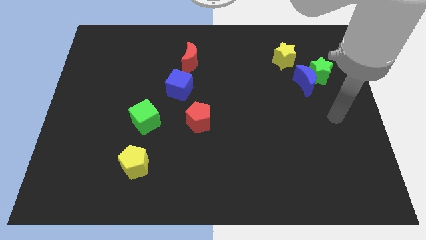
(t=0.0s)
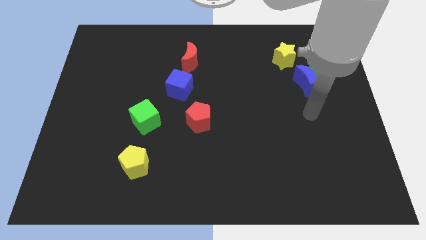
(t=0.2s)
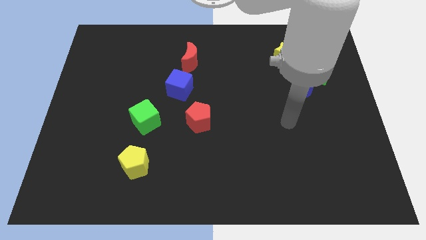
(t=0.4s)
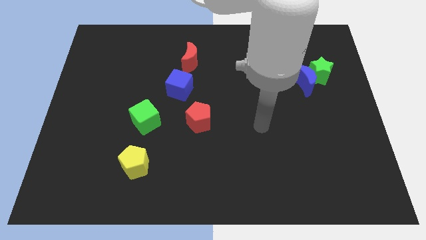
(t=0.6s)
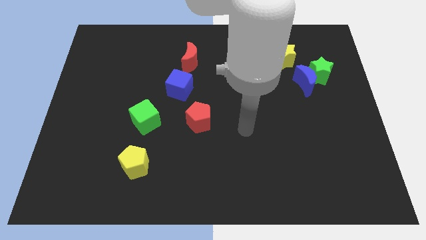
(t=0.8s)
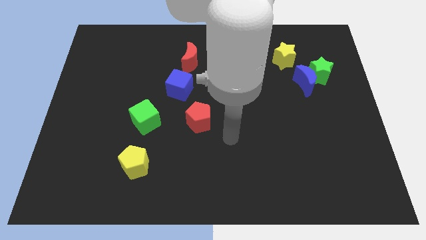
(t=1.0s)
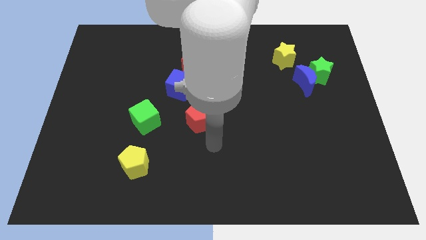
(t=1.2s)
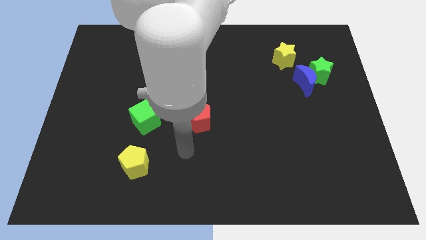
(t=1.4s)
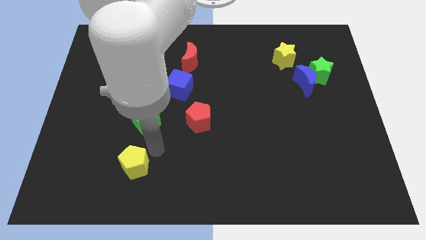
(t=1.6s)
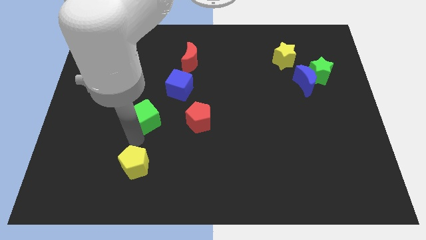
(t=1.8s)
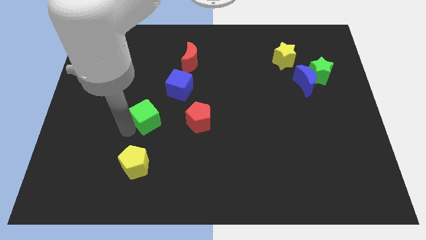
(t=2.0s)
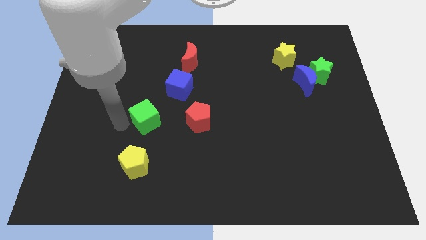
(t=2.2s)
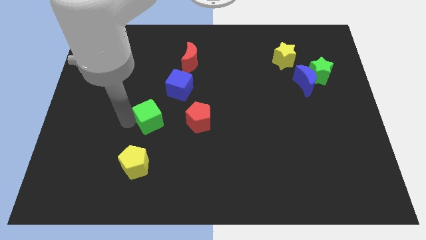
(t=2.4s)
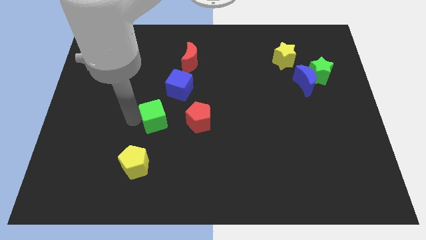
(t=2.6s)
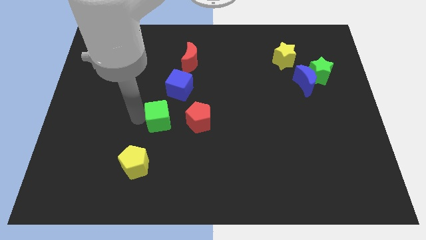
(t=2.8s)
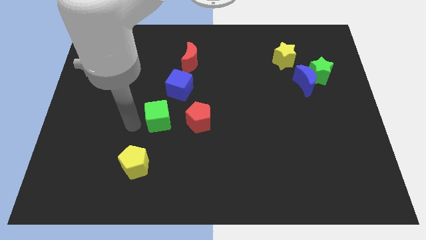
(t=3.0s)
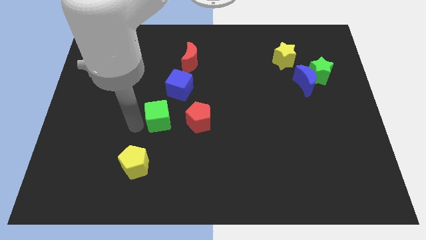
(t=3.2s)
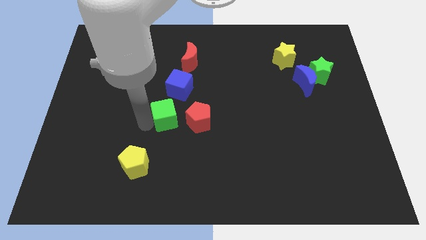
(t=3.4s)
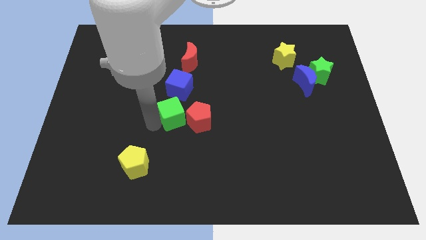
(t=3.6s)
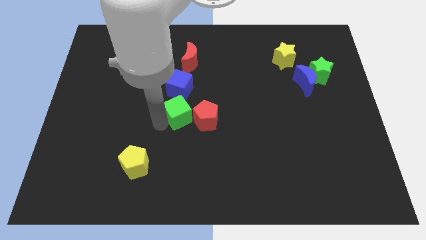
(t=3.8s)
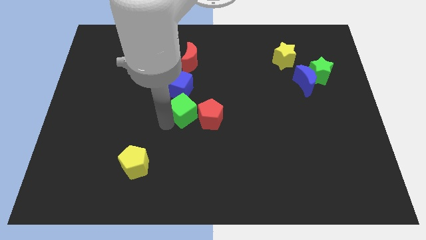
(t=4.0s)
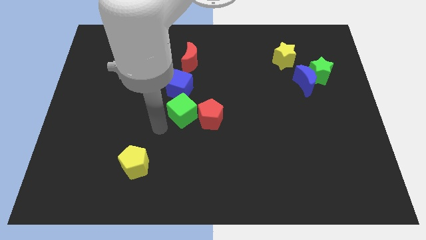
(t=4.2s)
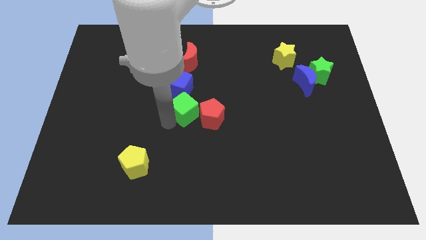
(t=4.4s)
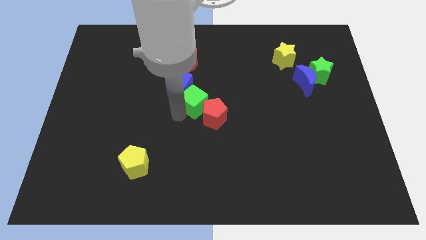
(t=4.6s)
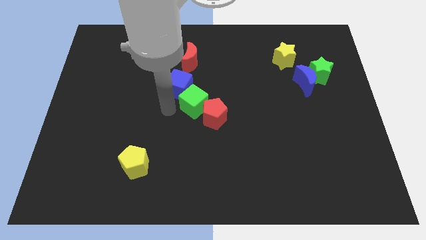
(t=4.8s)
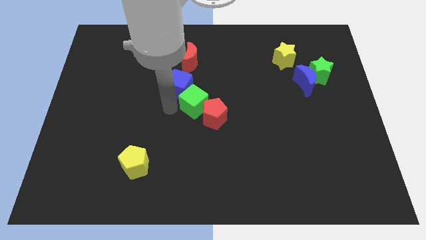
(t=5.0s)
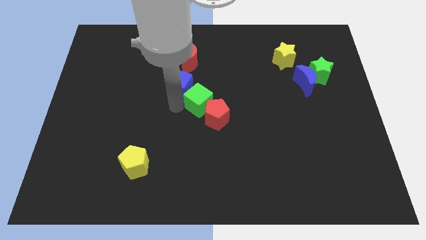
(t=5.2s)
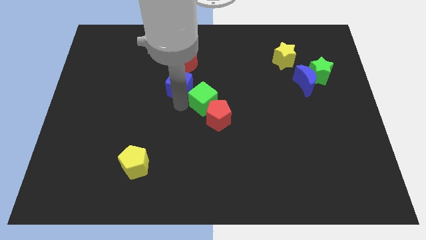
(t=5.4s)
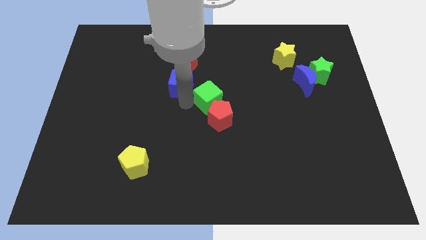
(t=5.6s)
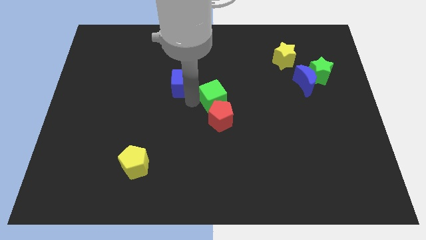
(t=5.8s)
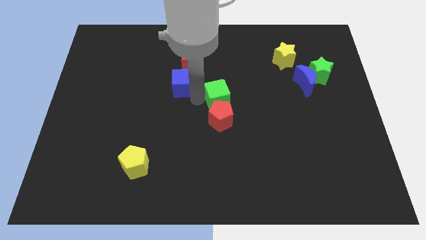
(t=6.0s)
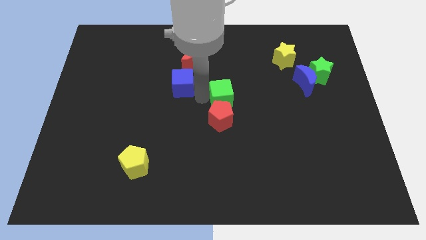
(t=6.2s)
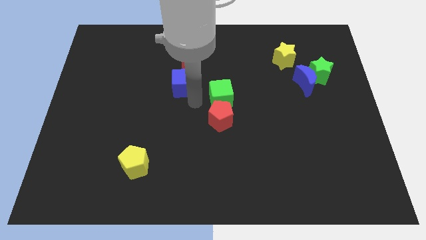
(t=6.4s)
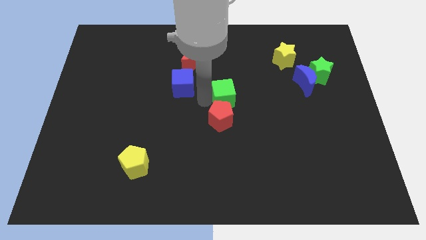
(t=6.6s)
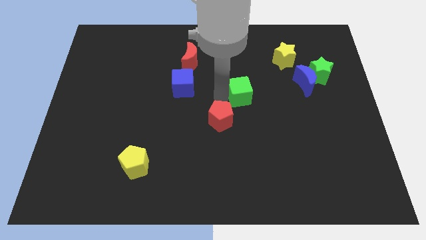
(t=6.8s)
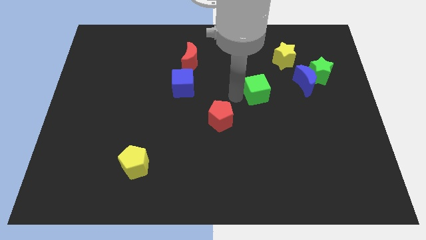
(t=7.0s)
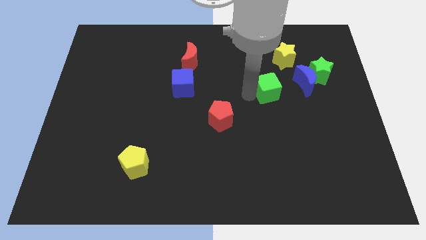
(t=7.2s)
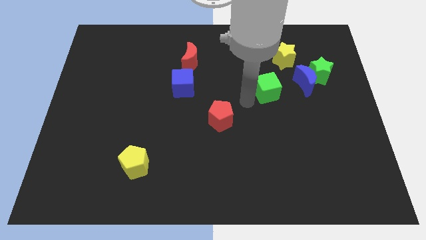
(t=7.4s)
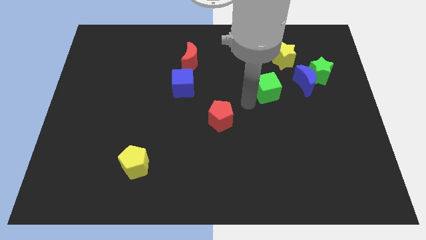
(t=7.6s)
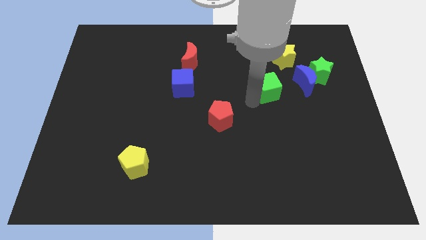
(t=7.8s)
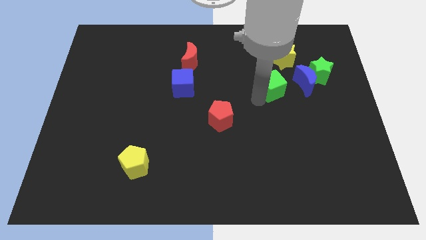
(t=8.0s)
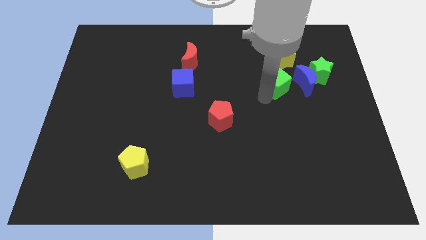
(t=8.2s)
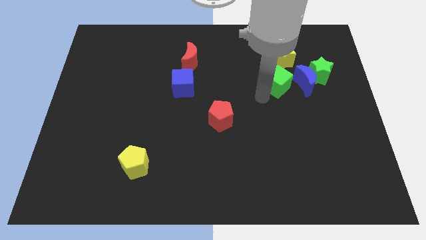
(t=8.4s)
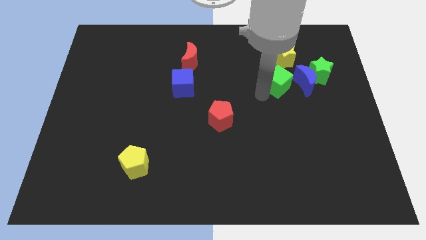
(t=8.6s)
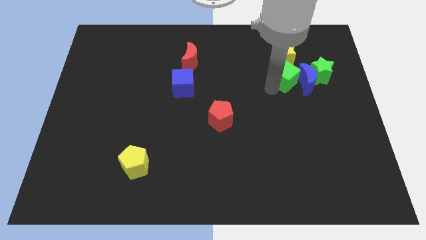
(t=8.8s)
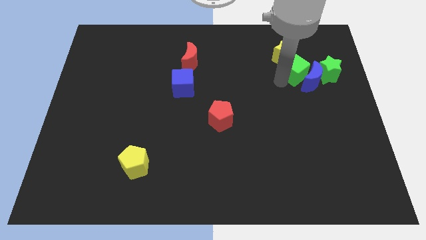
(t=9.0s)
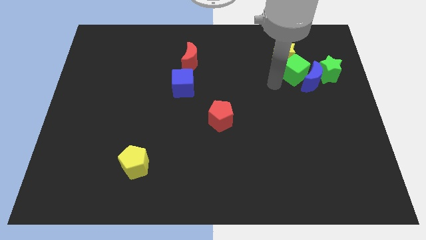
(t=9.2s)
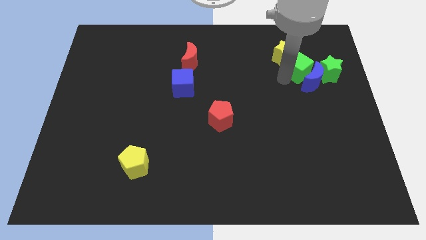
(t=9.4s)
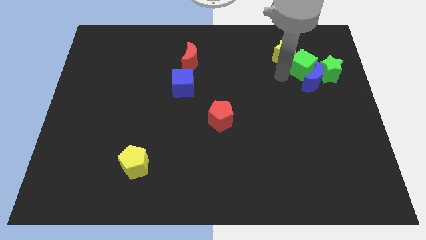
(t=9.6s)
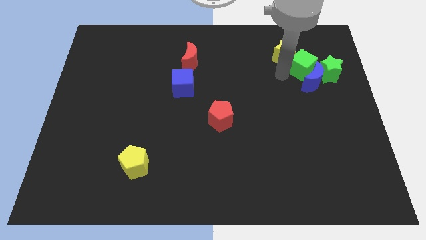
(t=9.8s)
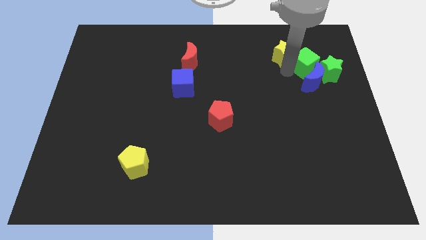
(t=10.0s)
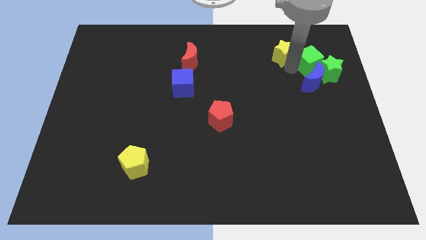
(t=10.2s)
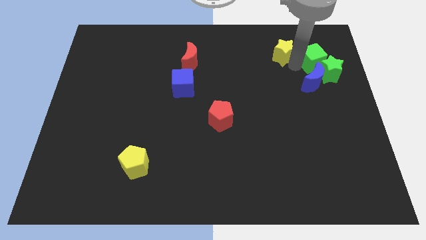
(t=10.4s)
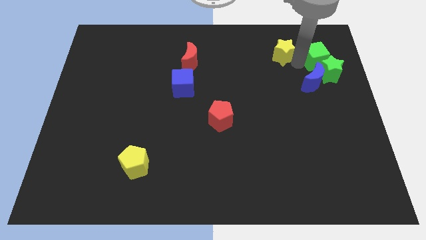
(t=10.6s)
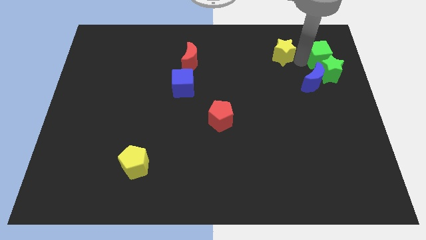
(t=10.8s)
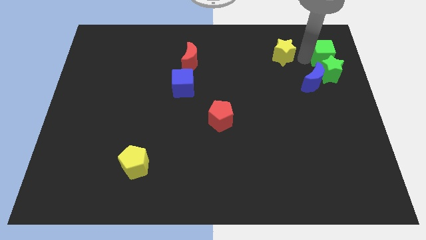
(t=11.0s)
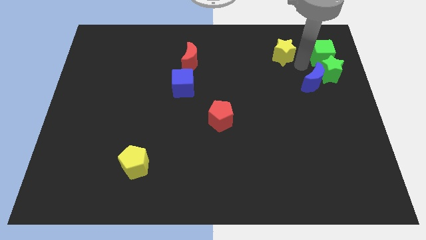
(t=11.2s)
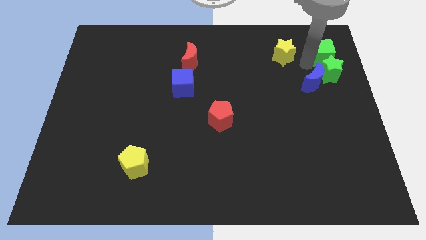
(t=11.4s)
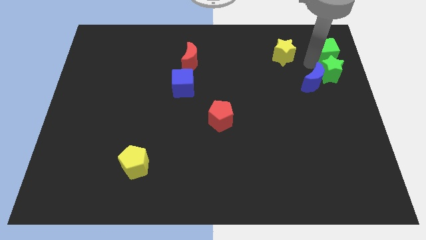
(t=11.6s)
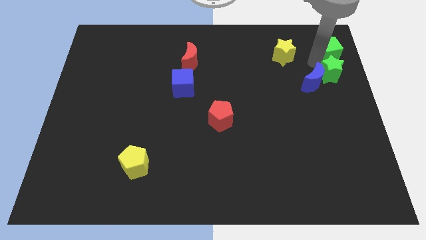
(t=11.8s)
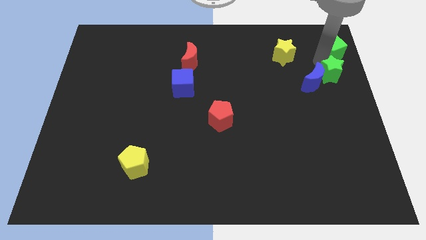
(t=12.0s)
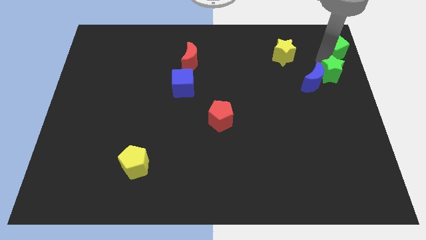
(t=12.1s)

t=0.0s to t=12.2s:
put the green cube to the top right of the board
